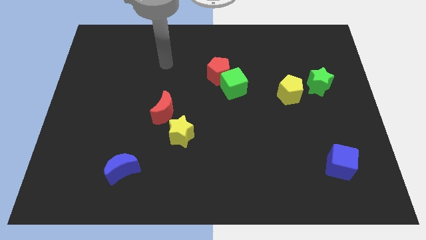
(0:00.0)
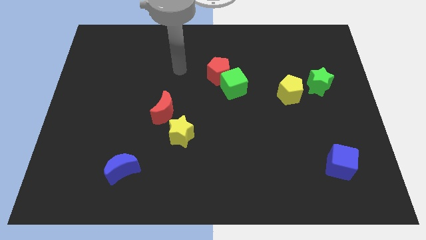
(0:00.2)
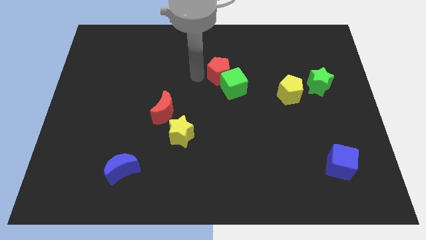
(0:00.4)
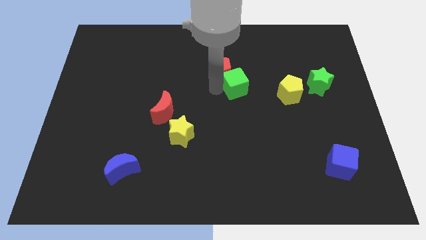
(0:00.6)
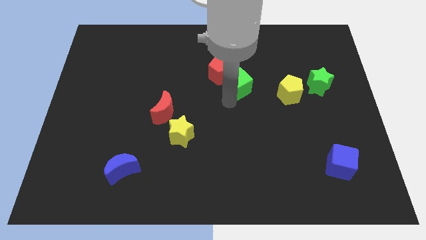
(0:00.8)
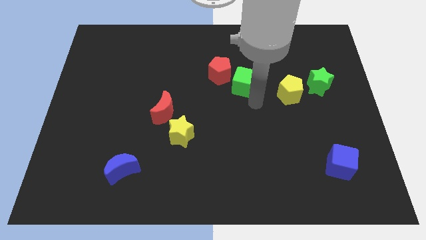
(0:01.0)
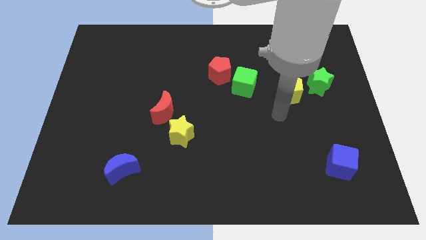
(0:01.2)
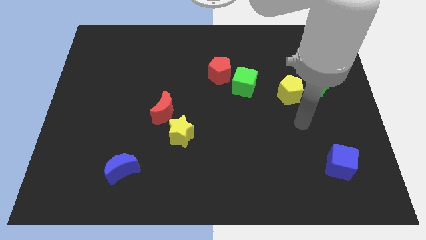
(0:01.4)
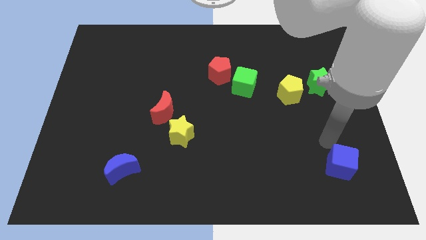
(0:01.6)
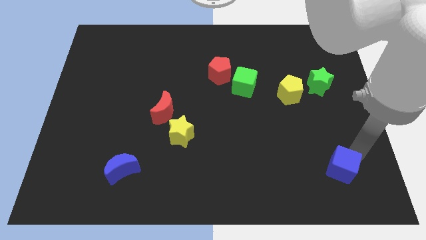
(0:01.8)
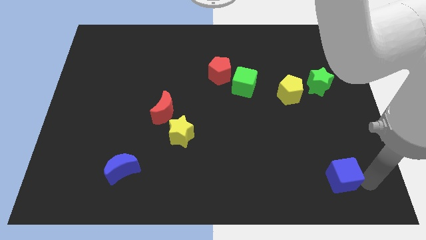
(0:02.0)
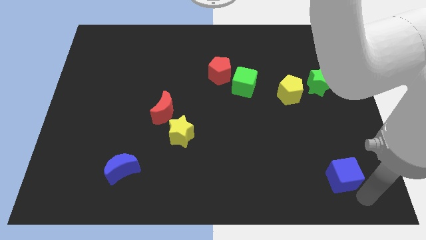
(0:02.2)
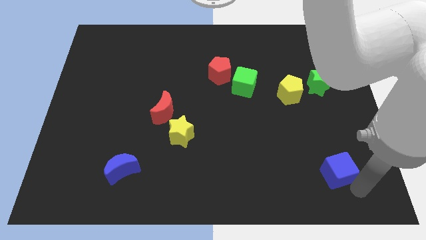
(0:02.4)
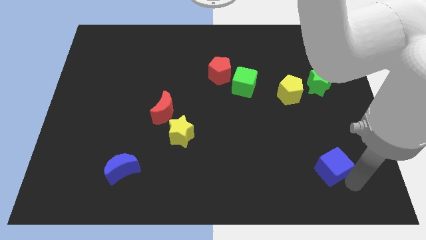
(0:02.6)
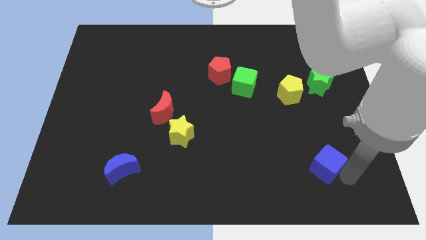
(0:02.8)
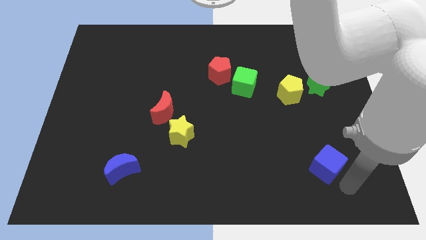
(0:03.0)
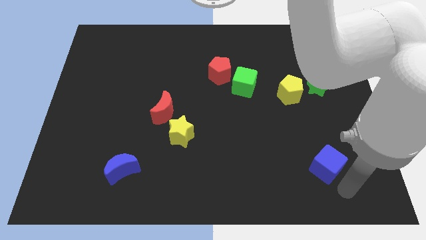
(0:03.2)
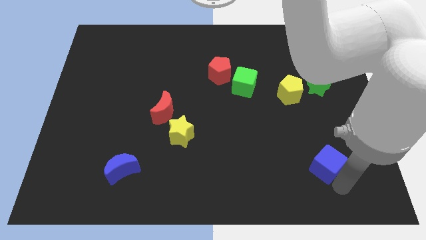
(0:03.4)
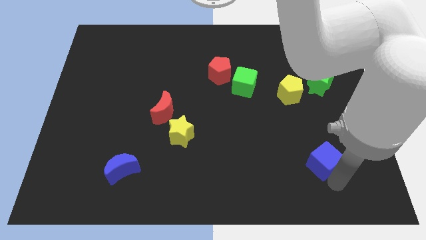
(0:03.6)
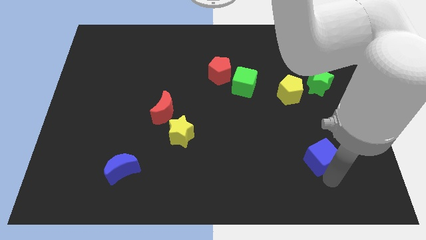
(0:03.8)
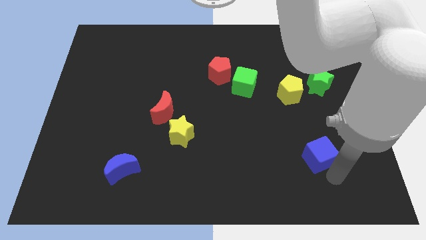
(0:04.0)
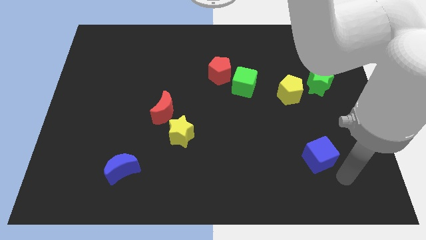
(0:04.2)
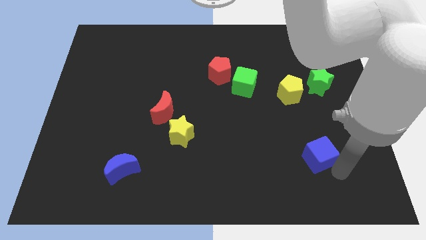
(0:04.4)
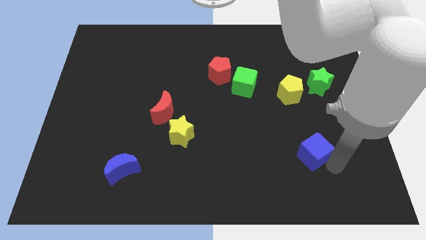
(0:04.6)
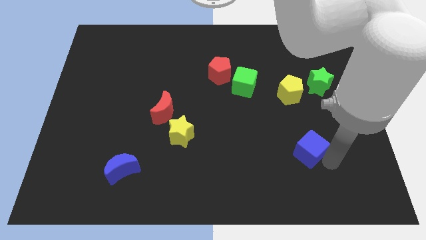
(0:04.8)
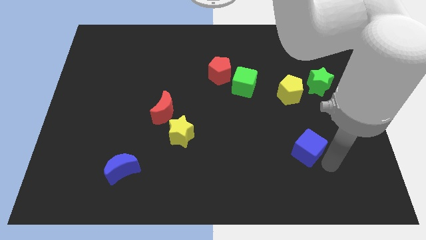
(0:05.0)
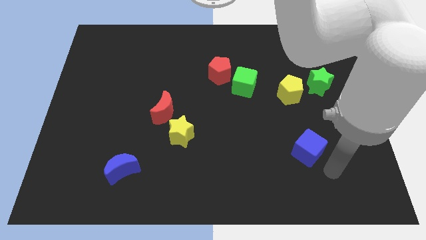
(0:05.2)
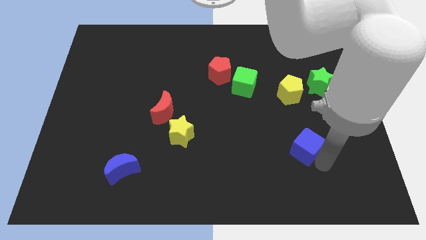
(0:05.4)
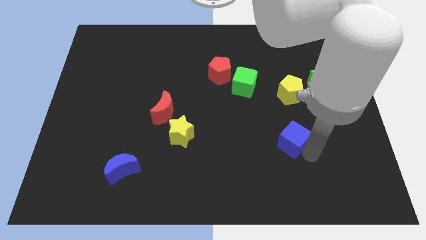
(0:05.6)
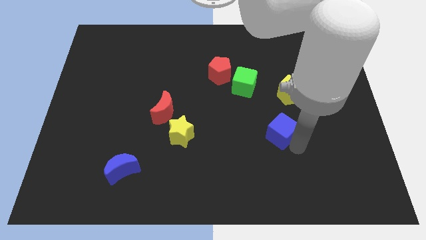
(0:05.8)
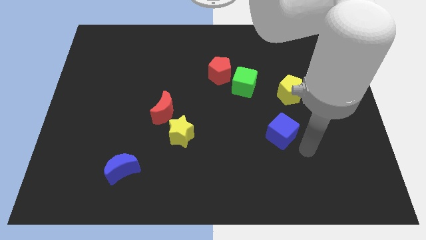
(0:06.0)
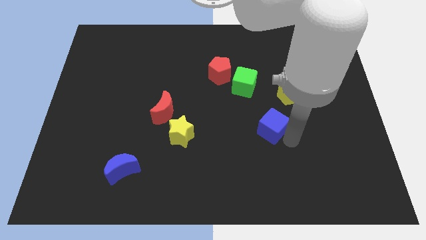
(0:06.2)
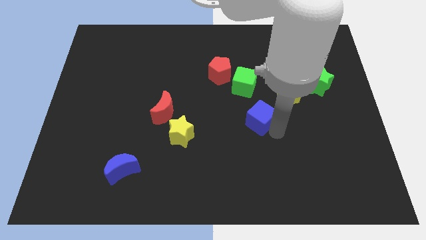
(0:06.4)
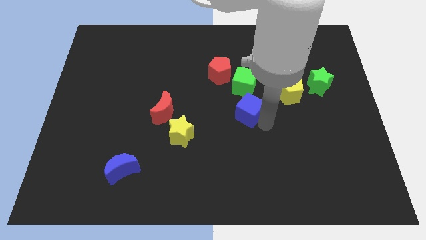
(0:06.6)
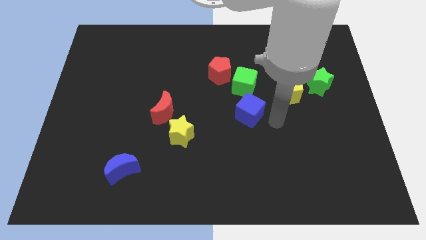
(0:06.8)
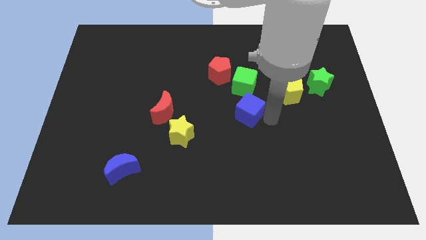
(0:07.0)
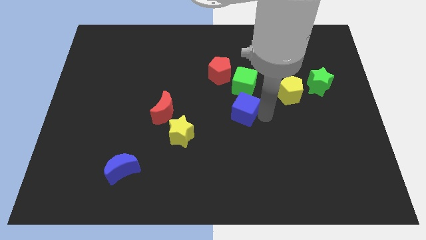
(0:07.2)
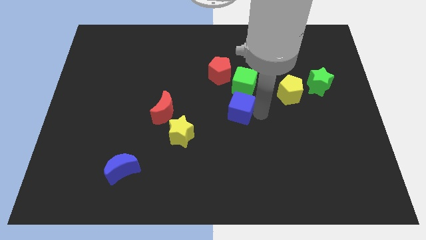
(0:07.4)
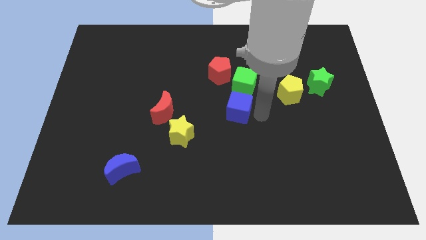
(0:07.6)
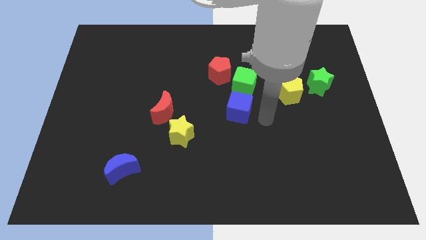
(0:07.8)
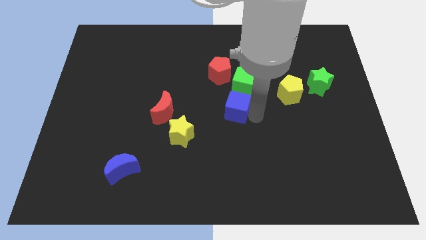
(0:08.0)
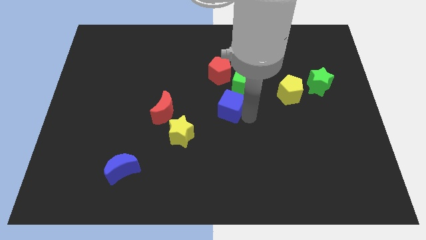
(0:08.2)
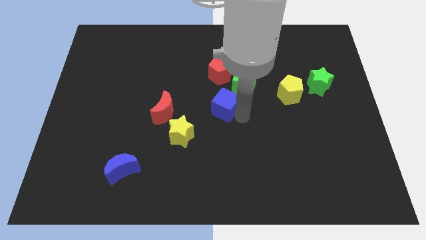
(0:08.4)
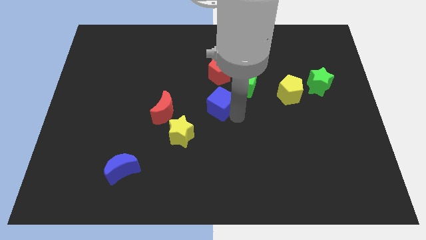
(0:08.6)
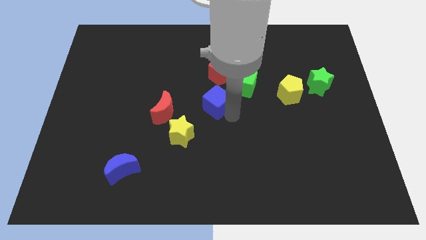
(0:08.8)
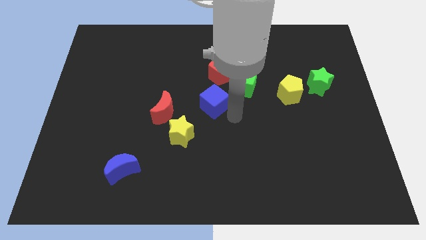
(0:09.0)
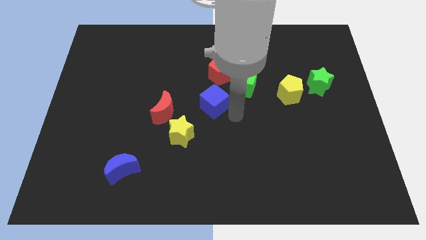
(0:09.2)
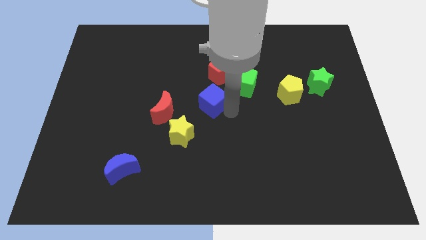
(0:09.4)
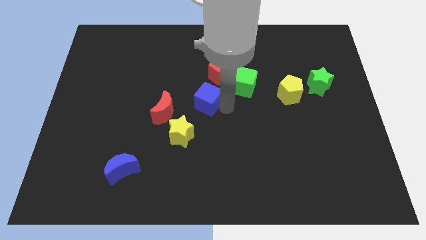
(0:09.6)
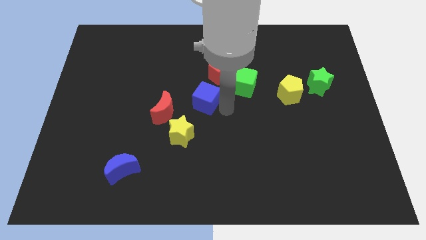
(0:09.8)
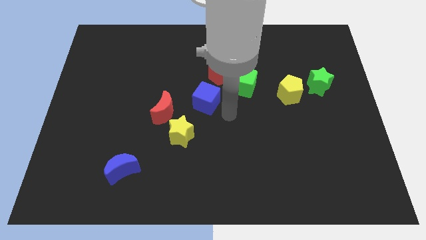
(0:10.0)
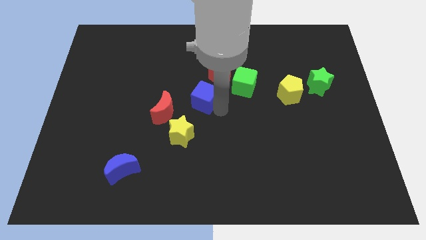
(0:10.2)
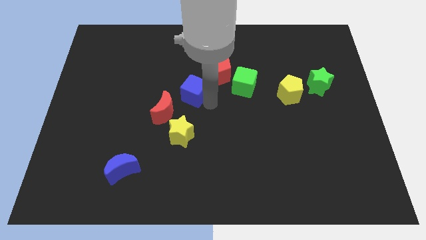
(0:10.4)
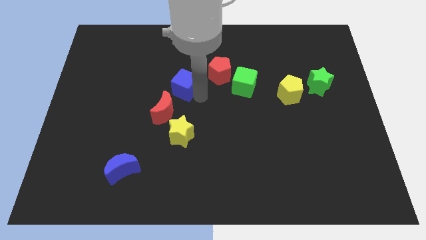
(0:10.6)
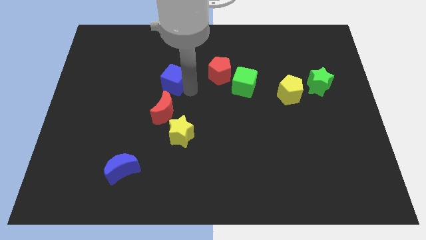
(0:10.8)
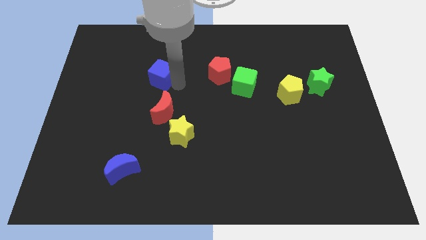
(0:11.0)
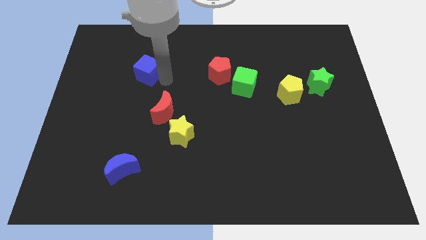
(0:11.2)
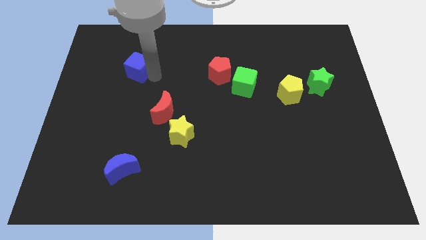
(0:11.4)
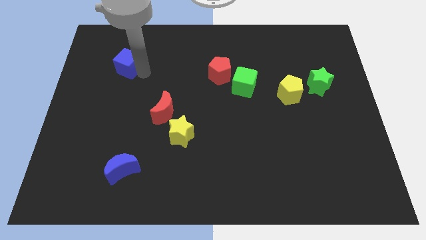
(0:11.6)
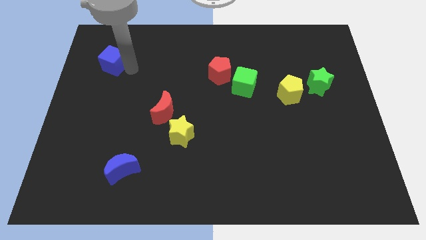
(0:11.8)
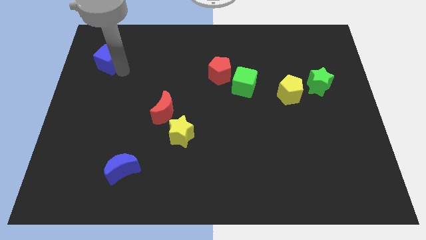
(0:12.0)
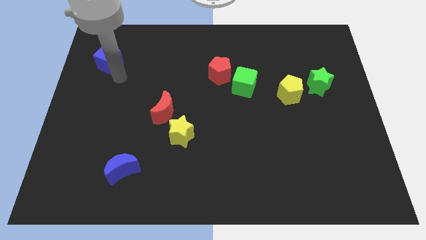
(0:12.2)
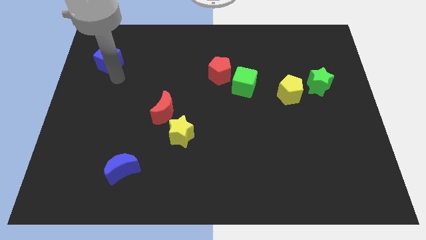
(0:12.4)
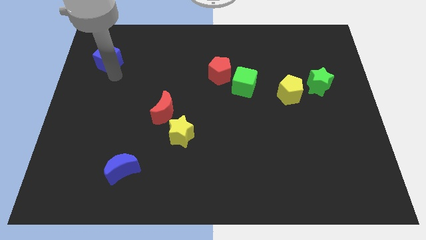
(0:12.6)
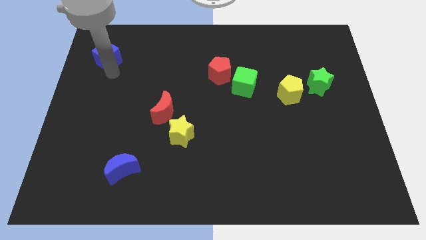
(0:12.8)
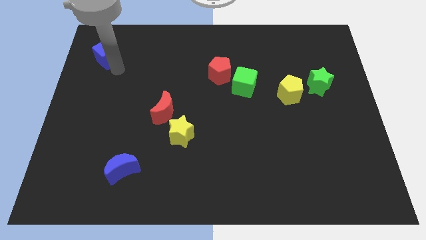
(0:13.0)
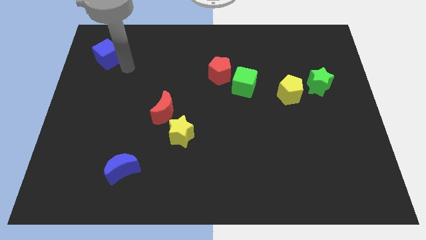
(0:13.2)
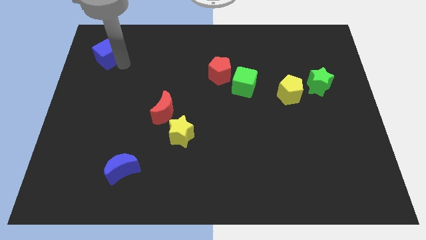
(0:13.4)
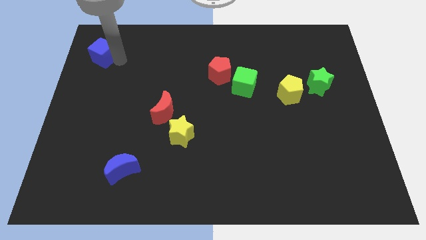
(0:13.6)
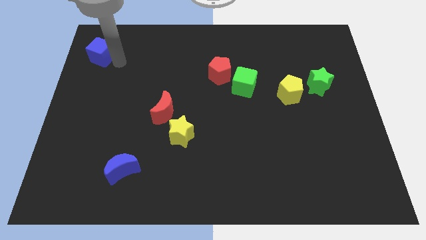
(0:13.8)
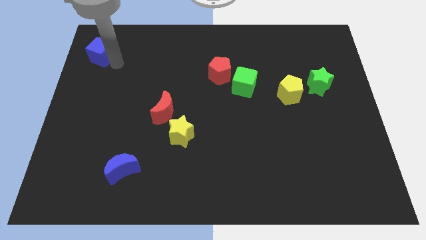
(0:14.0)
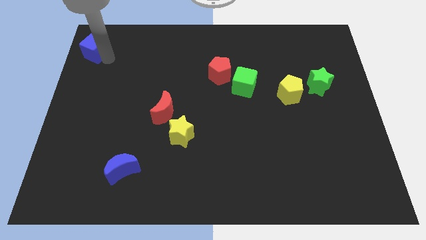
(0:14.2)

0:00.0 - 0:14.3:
slide the blue cube to the top left
